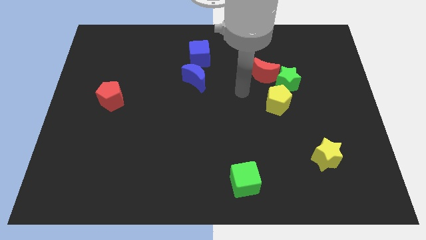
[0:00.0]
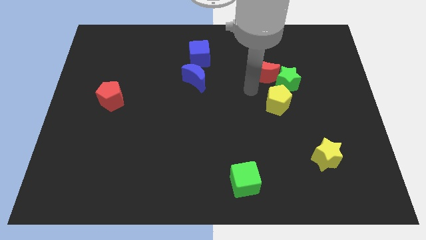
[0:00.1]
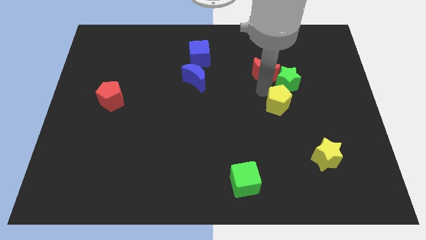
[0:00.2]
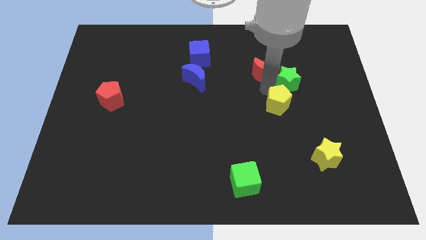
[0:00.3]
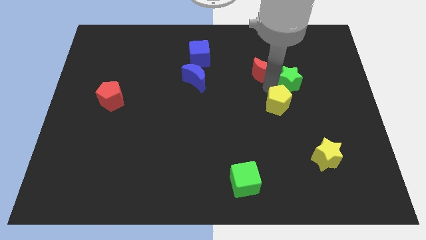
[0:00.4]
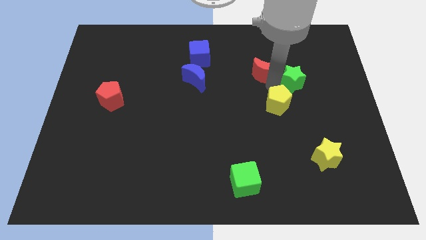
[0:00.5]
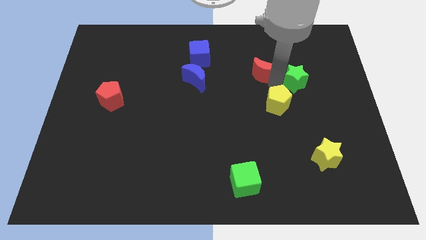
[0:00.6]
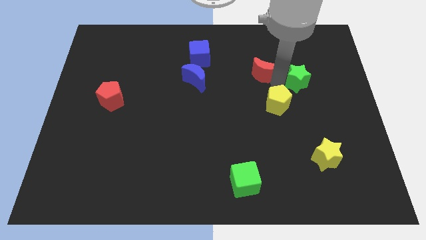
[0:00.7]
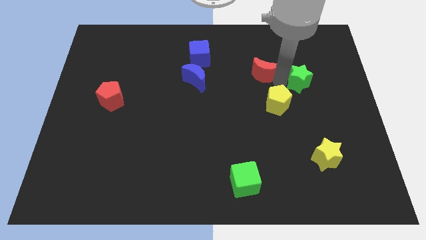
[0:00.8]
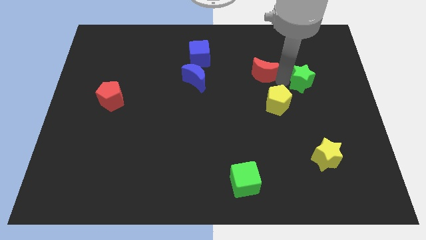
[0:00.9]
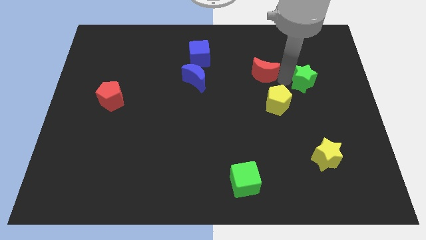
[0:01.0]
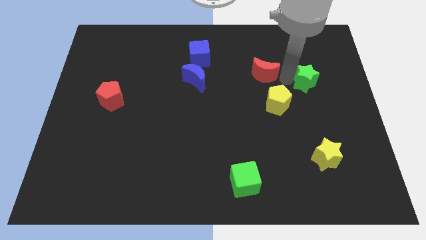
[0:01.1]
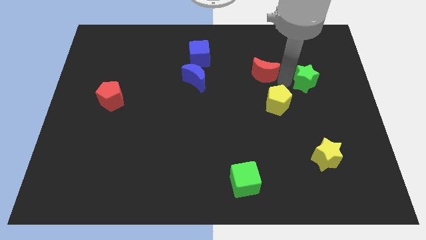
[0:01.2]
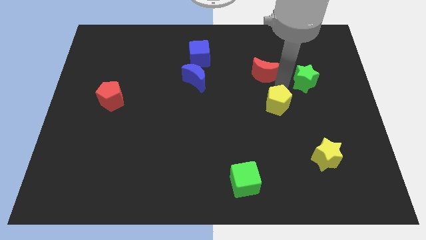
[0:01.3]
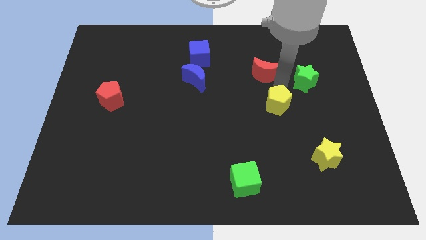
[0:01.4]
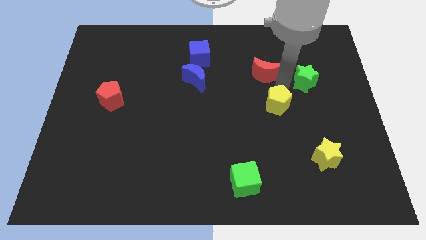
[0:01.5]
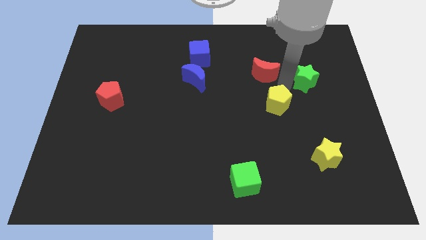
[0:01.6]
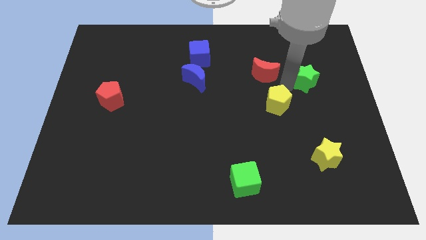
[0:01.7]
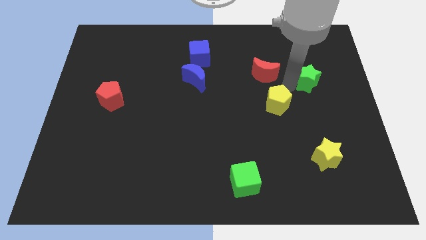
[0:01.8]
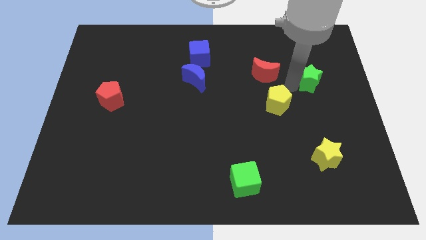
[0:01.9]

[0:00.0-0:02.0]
move the green star away from the red moon and yellow pentagon

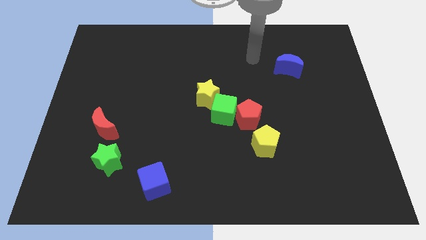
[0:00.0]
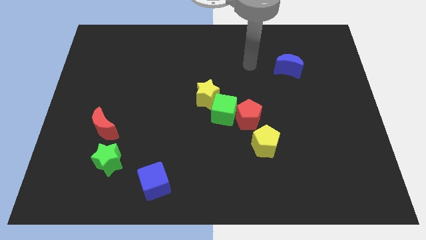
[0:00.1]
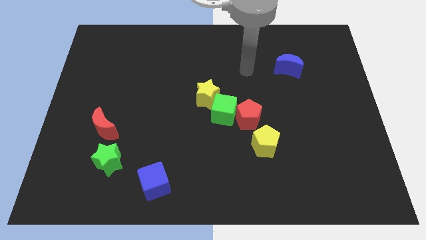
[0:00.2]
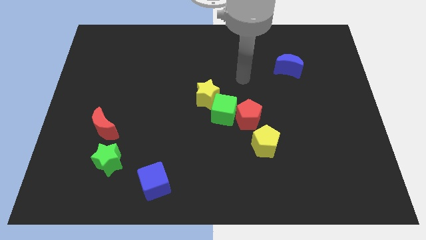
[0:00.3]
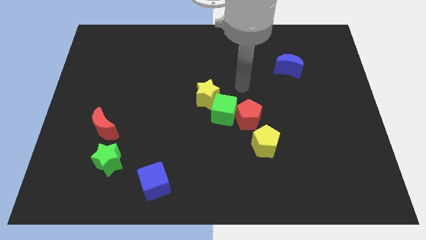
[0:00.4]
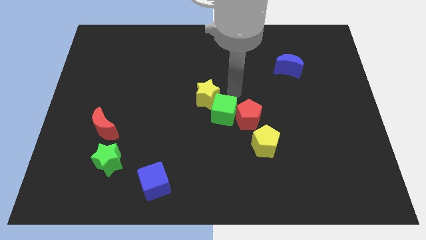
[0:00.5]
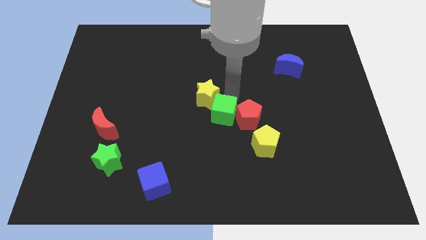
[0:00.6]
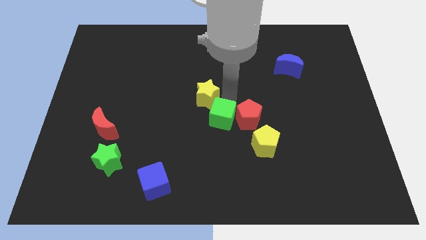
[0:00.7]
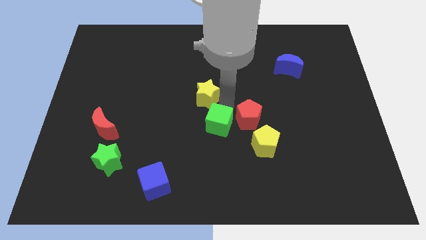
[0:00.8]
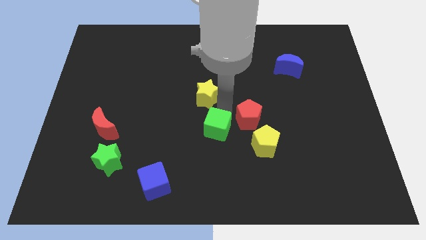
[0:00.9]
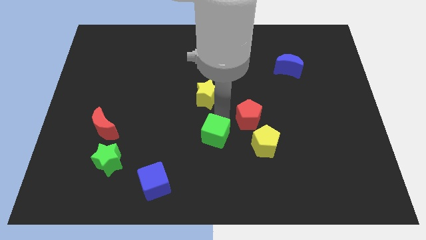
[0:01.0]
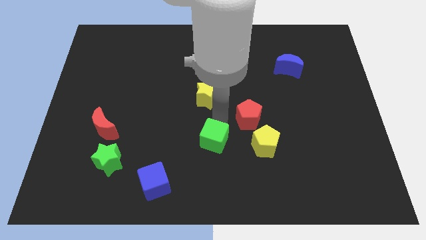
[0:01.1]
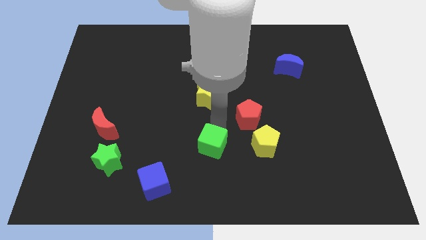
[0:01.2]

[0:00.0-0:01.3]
move the green cube away from the red pentagon and yellow star

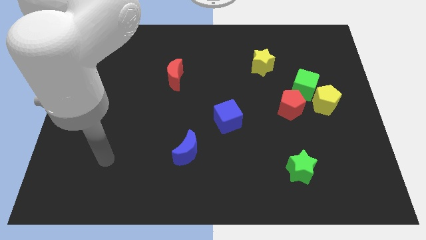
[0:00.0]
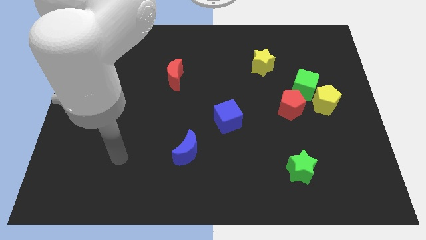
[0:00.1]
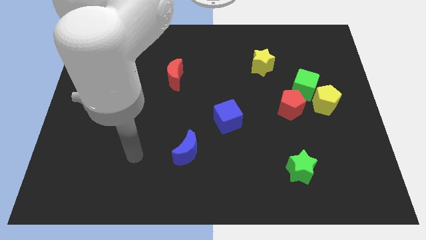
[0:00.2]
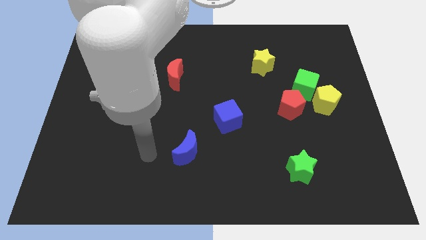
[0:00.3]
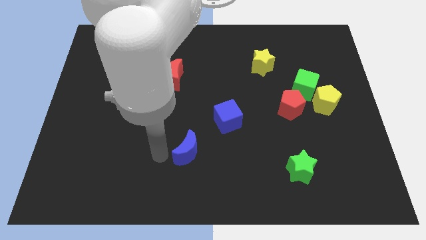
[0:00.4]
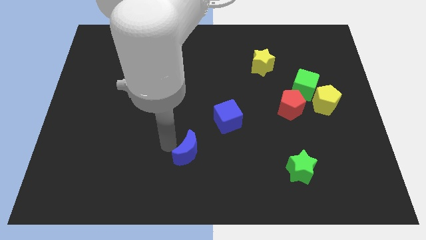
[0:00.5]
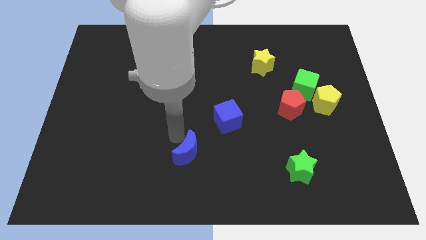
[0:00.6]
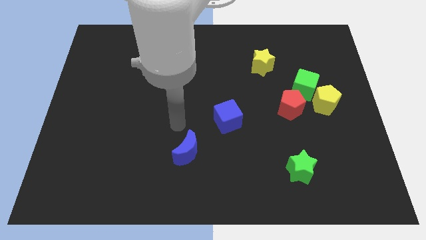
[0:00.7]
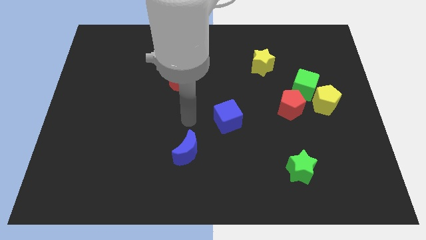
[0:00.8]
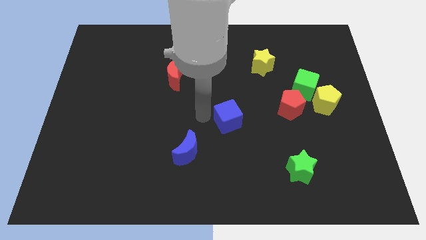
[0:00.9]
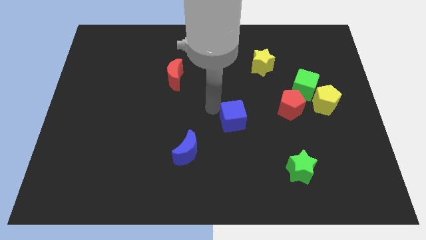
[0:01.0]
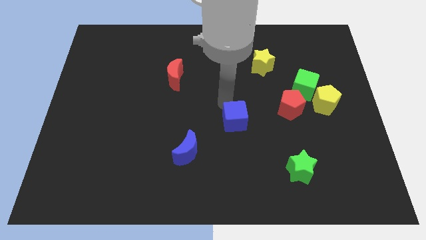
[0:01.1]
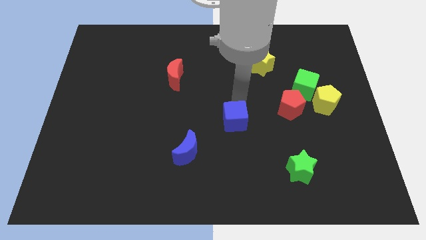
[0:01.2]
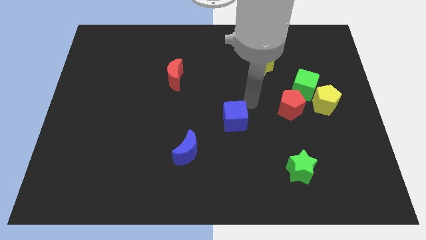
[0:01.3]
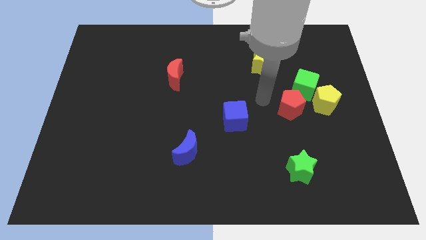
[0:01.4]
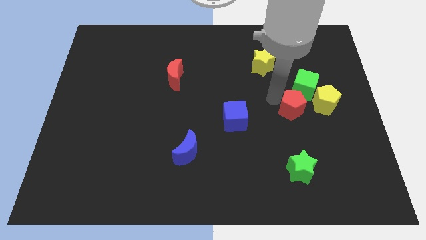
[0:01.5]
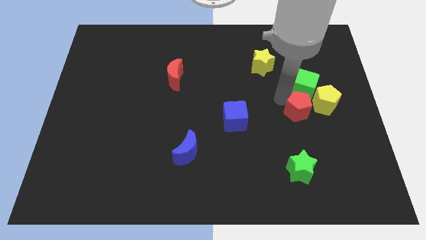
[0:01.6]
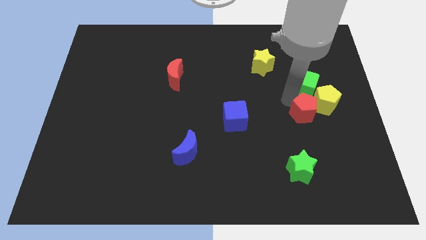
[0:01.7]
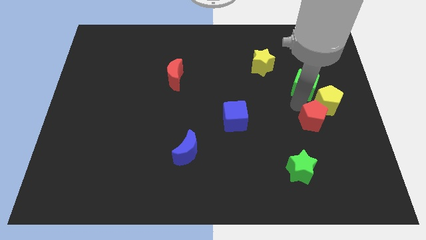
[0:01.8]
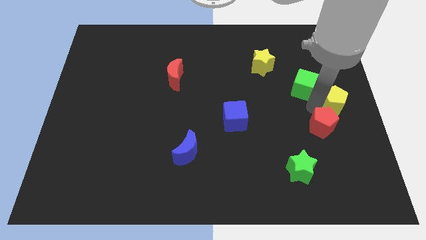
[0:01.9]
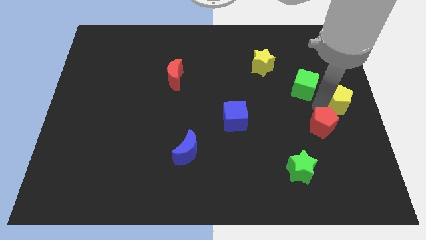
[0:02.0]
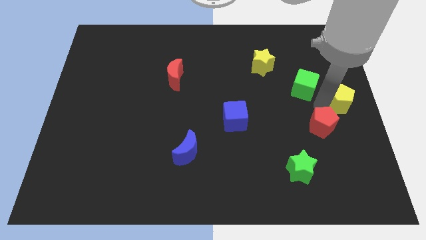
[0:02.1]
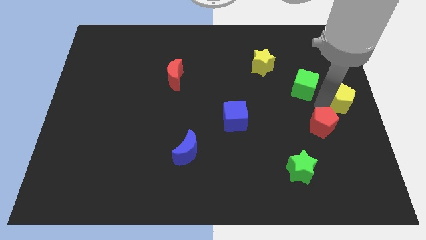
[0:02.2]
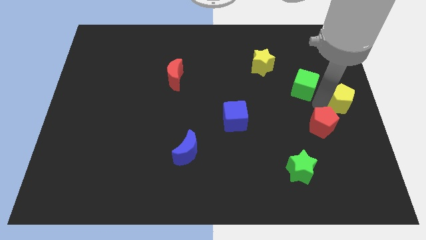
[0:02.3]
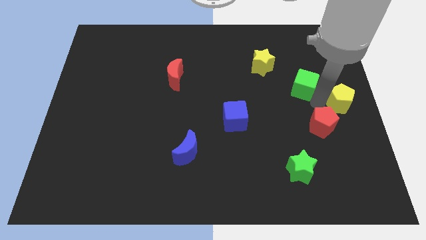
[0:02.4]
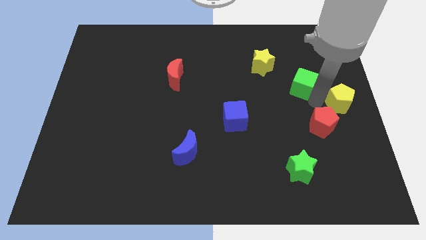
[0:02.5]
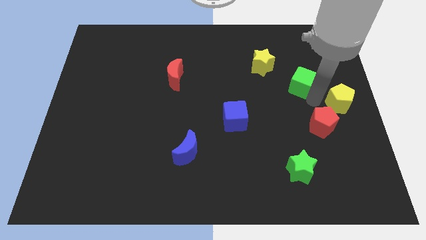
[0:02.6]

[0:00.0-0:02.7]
move the green cube away from the yellow pentagon and red pentagon

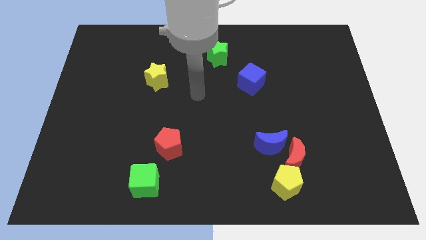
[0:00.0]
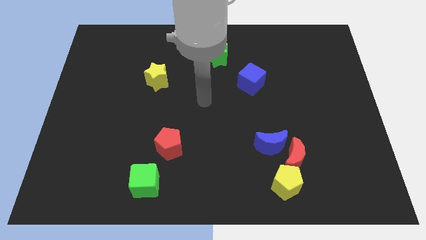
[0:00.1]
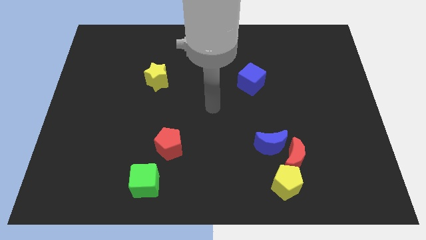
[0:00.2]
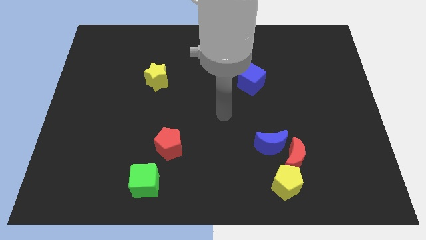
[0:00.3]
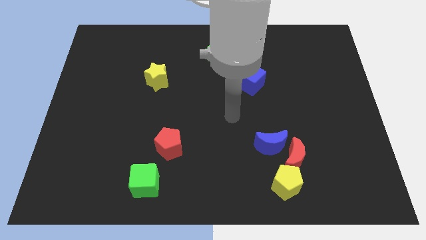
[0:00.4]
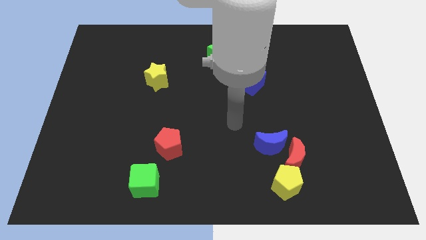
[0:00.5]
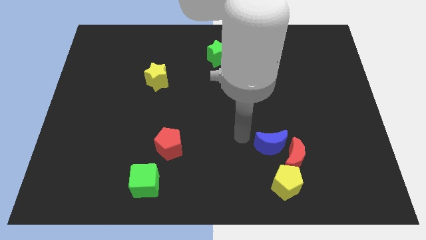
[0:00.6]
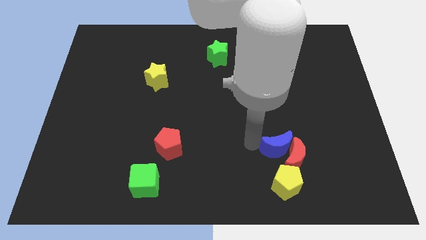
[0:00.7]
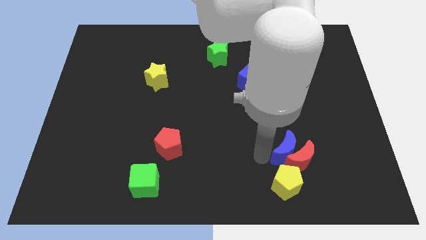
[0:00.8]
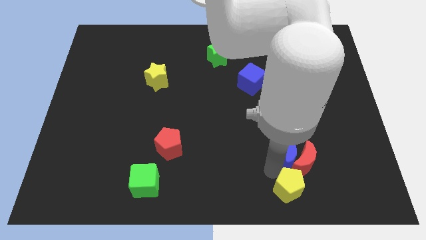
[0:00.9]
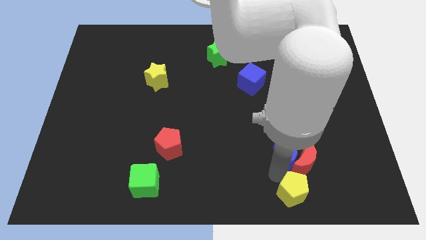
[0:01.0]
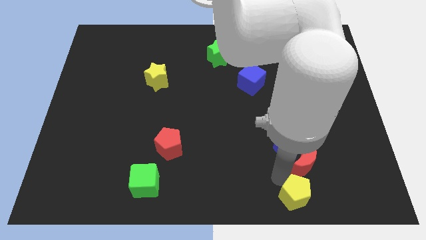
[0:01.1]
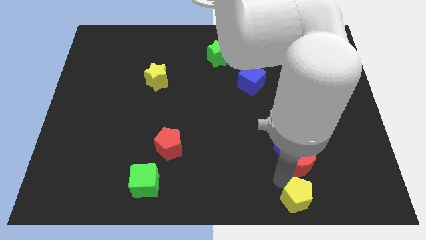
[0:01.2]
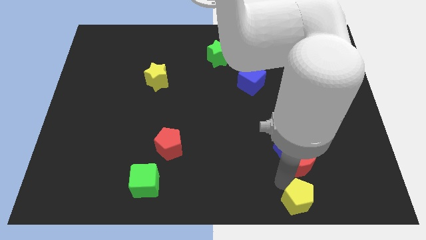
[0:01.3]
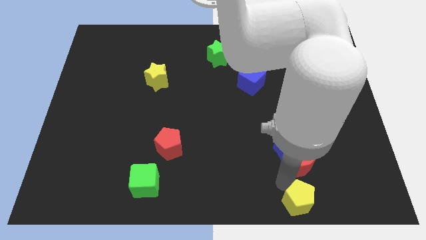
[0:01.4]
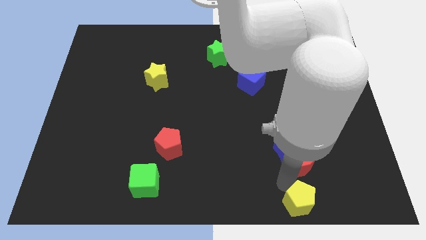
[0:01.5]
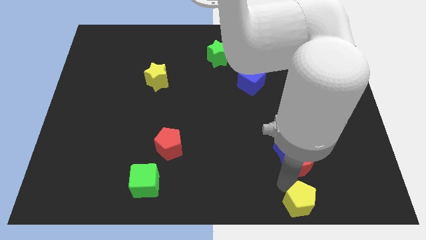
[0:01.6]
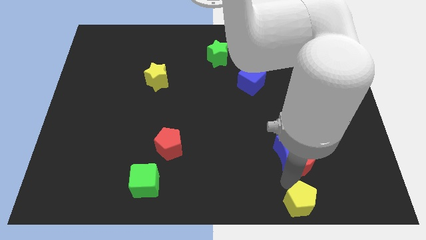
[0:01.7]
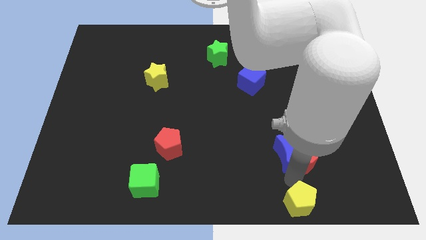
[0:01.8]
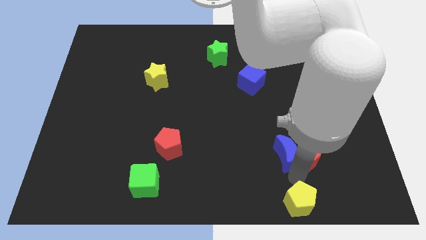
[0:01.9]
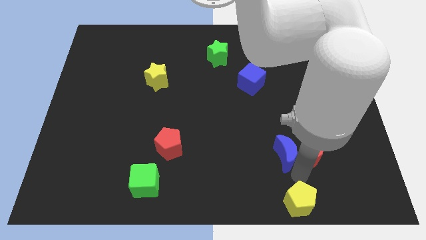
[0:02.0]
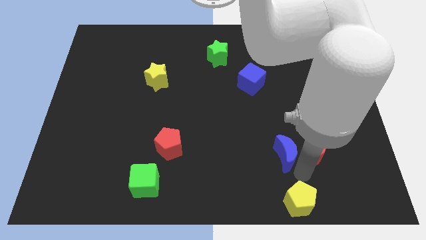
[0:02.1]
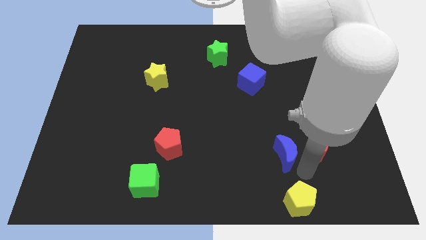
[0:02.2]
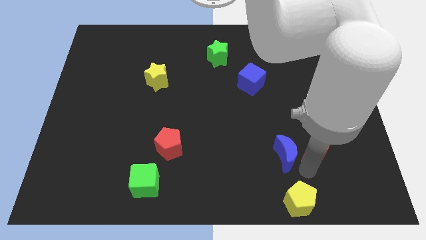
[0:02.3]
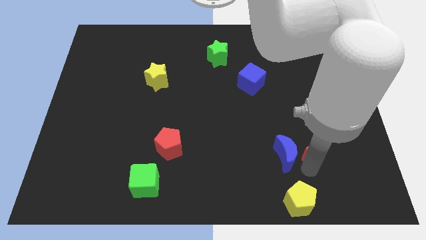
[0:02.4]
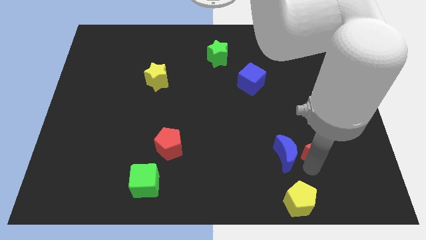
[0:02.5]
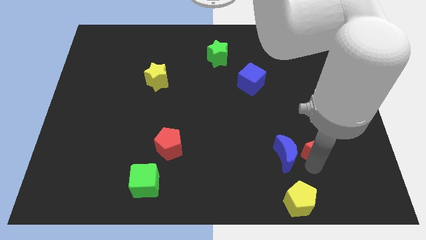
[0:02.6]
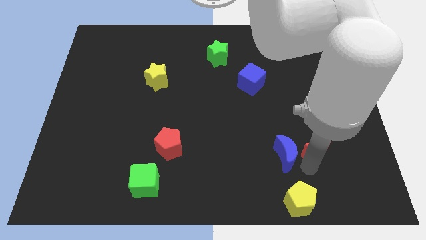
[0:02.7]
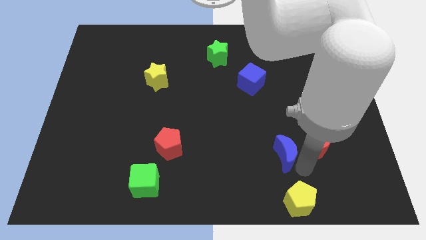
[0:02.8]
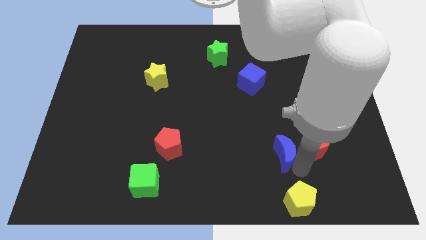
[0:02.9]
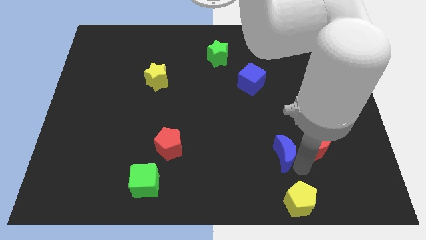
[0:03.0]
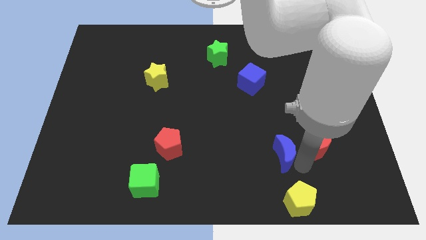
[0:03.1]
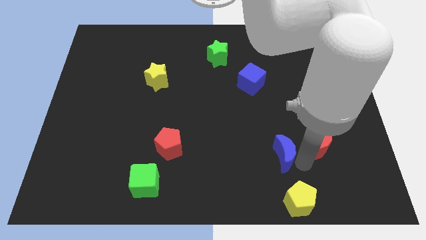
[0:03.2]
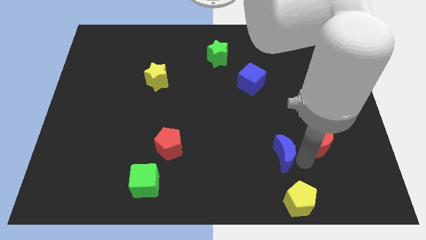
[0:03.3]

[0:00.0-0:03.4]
separate the red moon from the blue moon and yellow pentagon
